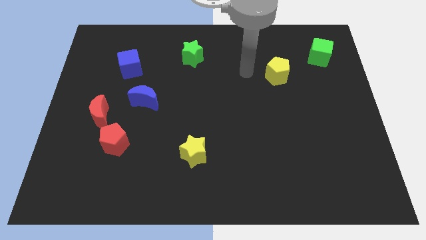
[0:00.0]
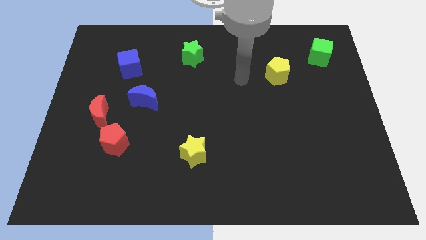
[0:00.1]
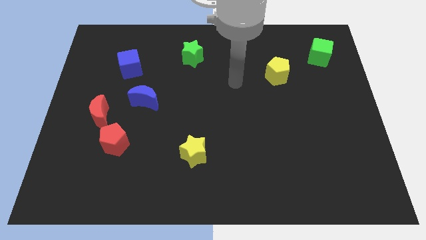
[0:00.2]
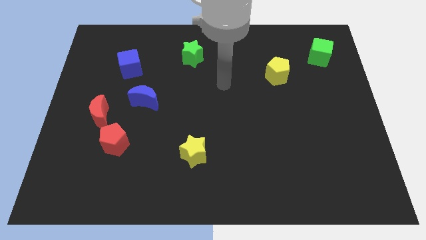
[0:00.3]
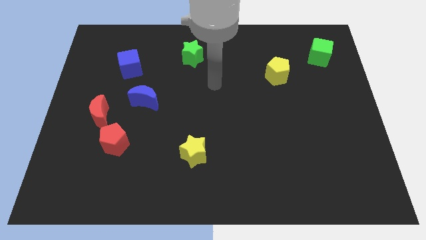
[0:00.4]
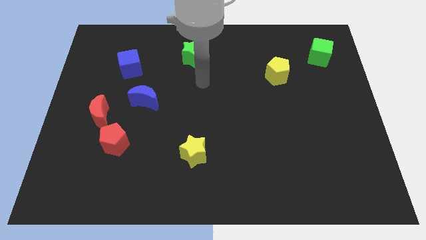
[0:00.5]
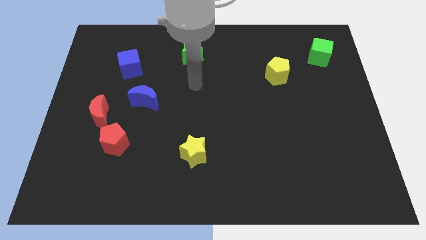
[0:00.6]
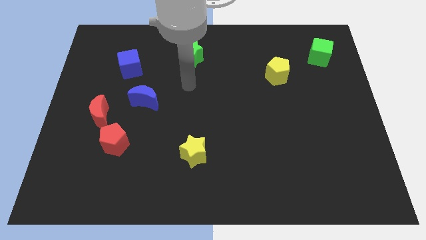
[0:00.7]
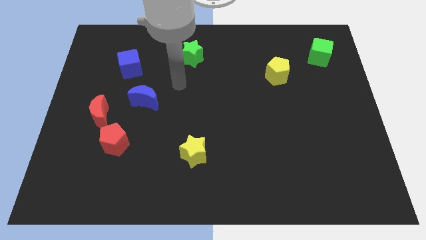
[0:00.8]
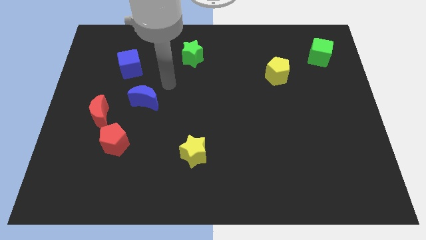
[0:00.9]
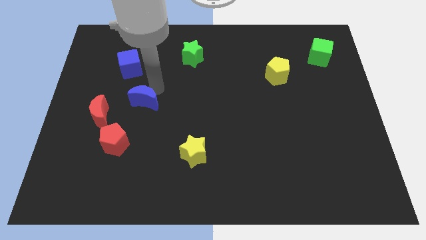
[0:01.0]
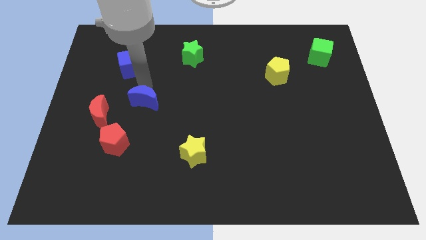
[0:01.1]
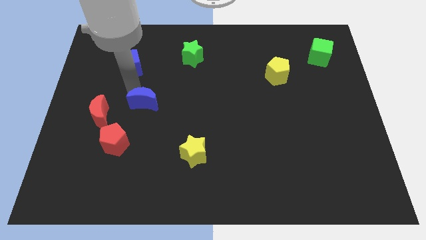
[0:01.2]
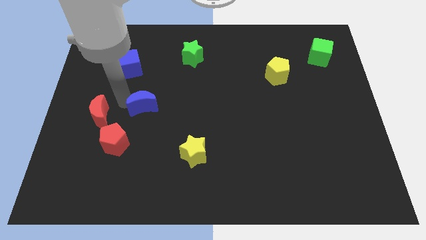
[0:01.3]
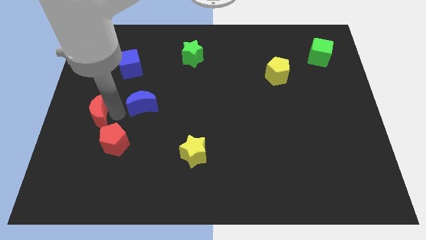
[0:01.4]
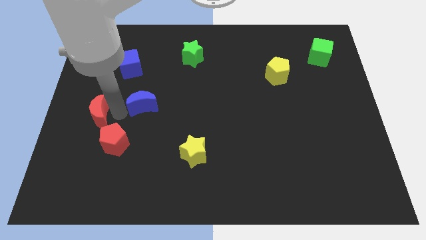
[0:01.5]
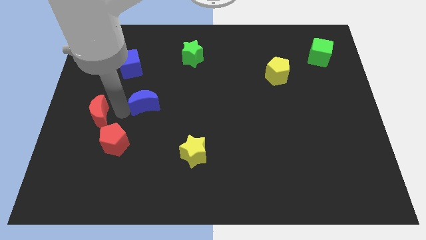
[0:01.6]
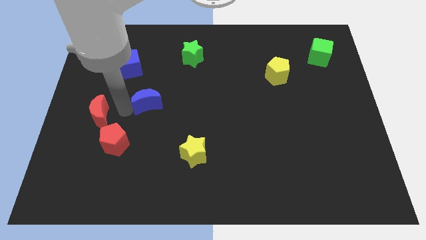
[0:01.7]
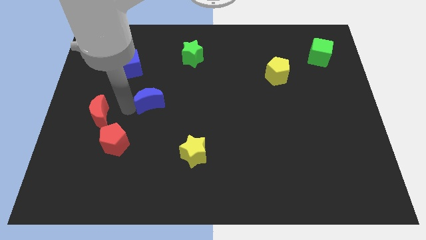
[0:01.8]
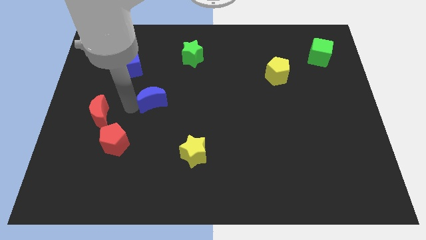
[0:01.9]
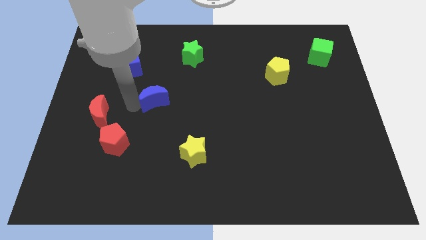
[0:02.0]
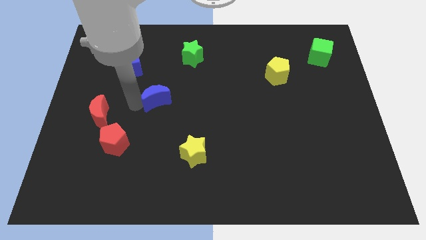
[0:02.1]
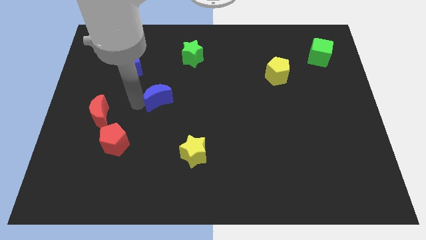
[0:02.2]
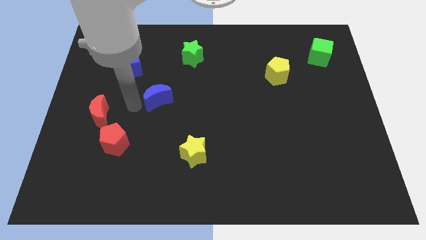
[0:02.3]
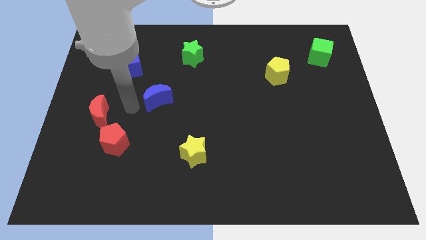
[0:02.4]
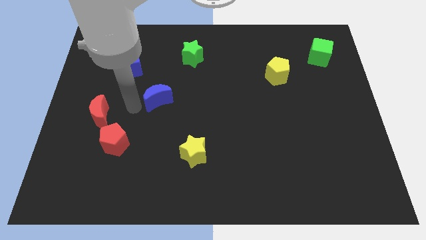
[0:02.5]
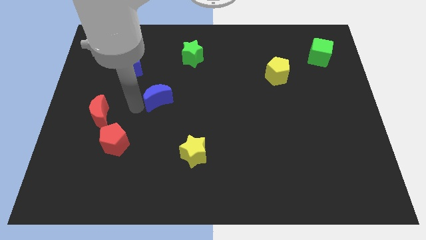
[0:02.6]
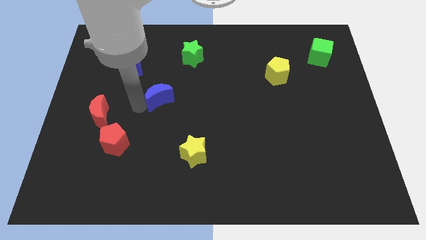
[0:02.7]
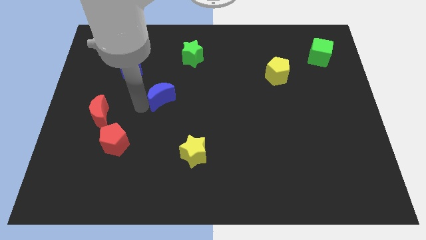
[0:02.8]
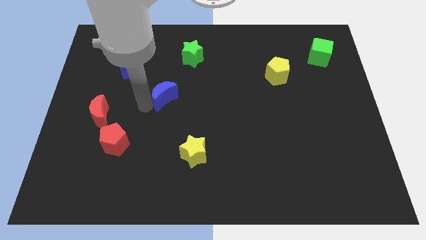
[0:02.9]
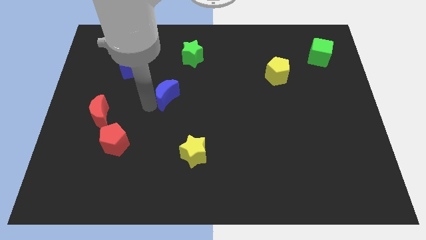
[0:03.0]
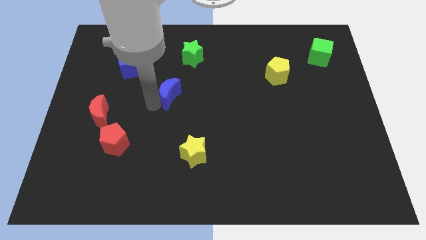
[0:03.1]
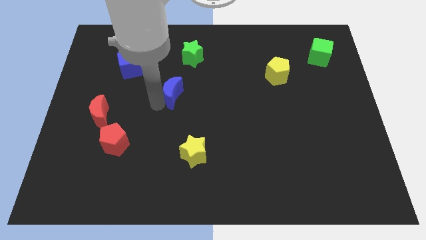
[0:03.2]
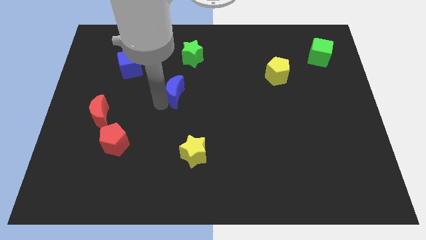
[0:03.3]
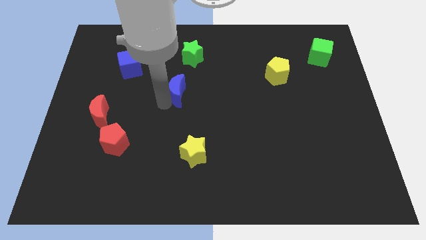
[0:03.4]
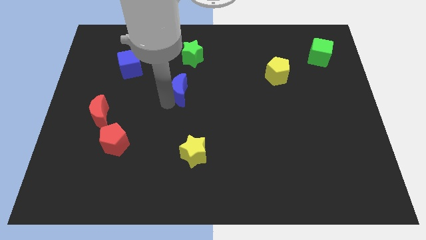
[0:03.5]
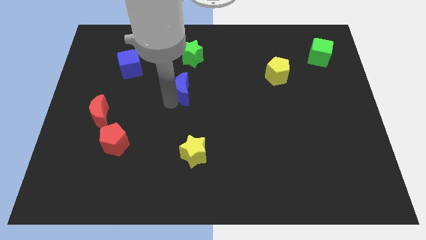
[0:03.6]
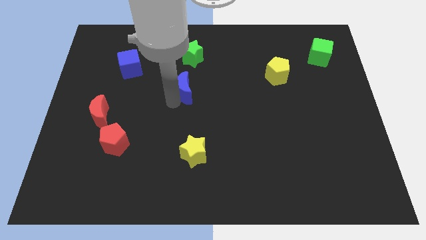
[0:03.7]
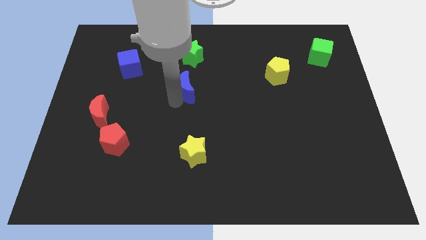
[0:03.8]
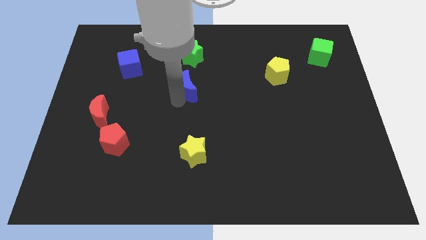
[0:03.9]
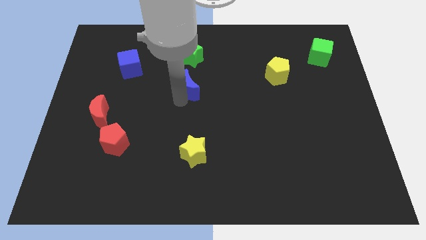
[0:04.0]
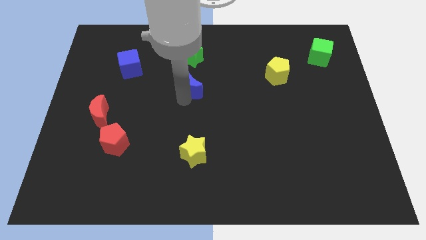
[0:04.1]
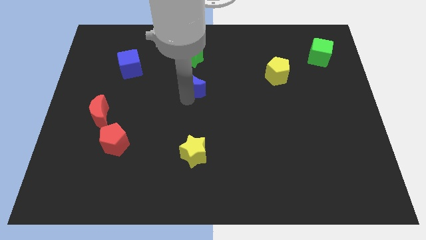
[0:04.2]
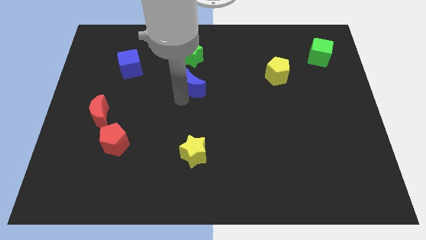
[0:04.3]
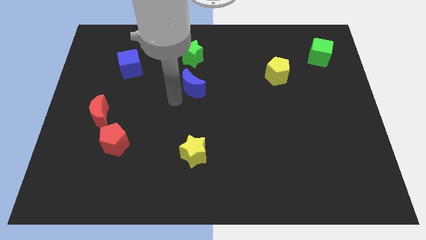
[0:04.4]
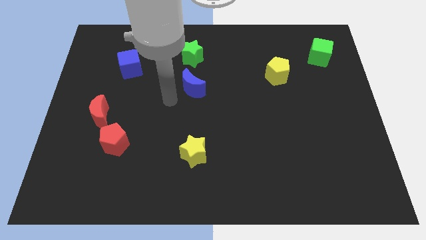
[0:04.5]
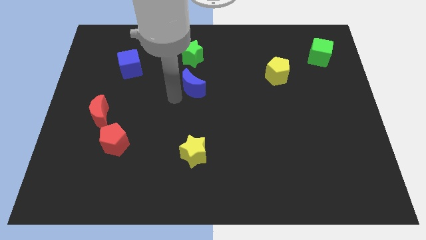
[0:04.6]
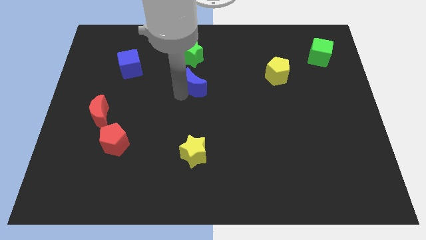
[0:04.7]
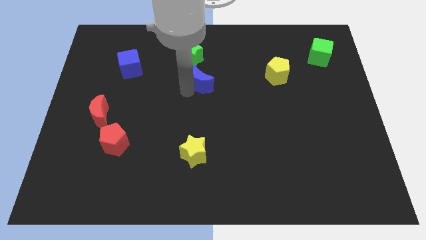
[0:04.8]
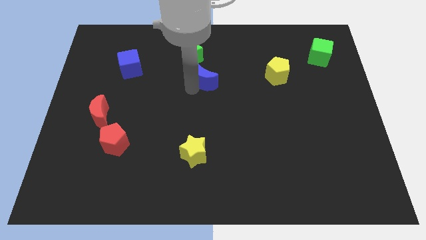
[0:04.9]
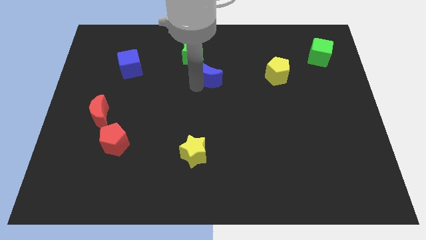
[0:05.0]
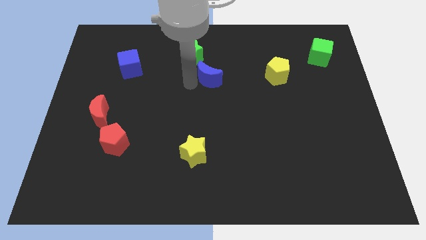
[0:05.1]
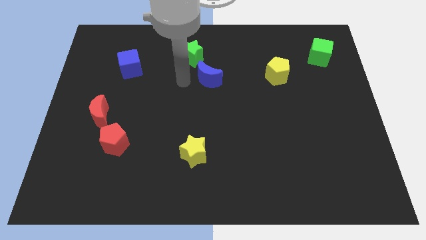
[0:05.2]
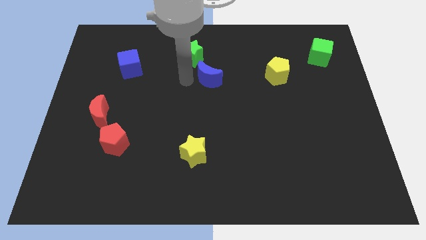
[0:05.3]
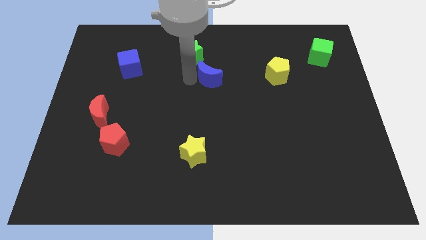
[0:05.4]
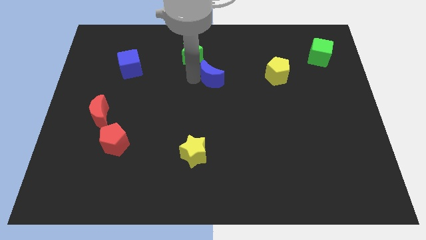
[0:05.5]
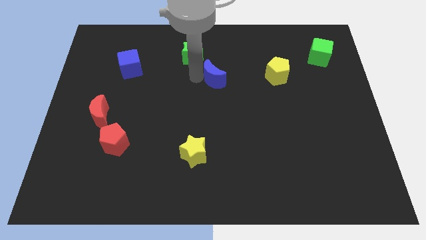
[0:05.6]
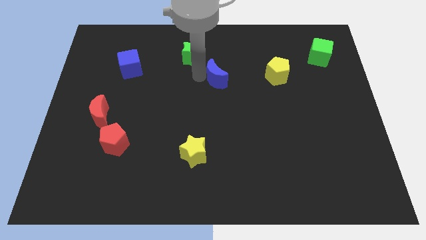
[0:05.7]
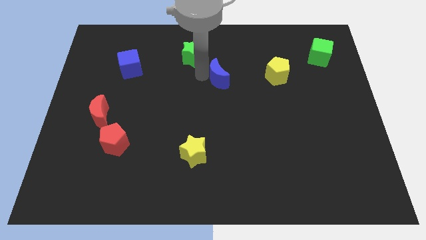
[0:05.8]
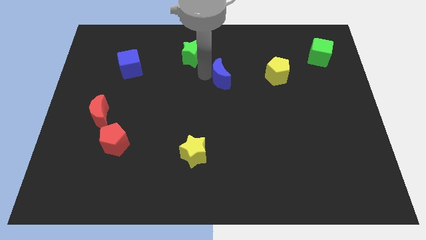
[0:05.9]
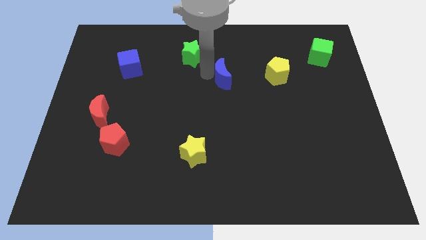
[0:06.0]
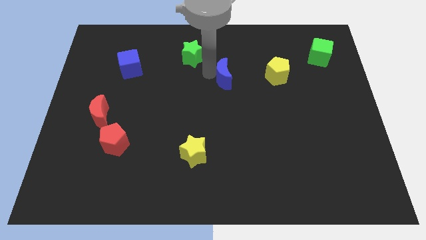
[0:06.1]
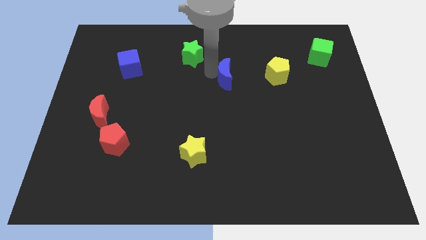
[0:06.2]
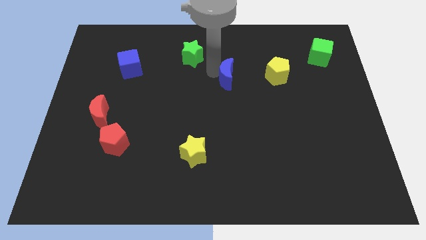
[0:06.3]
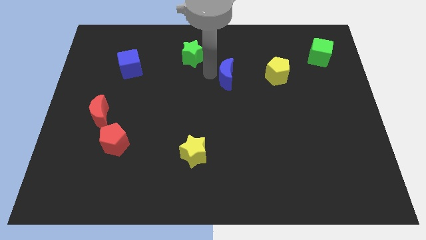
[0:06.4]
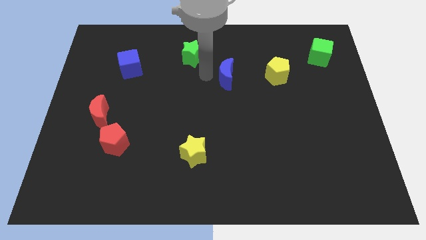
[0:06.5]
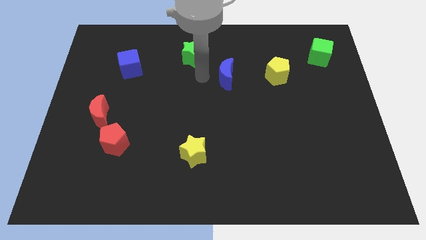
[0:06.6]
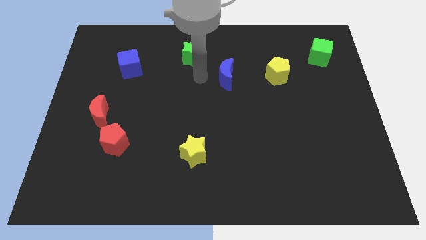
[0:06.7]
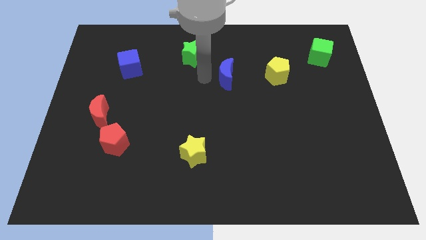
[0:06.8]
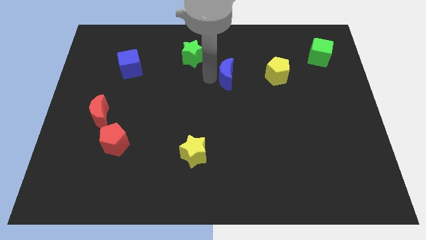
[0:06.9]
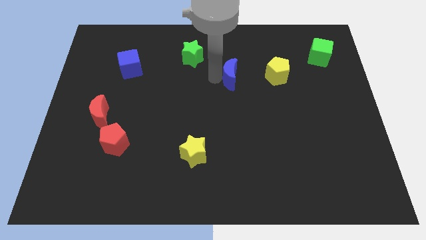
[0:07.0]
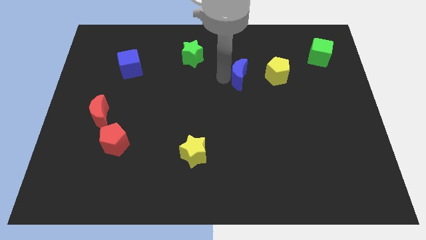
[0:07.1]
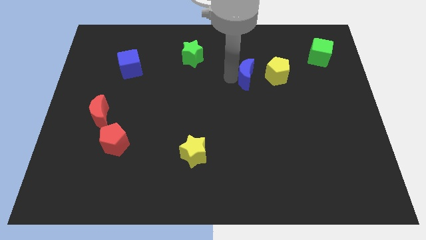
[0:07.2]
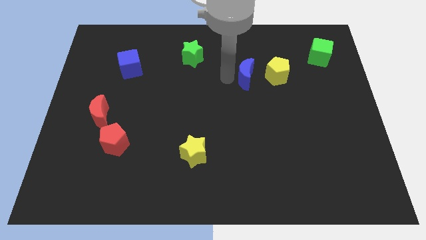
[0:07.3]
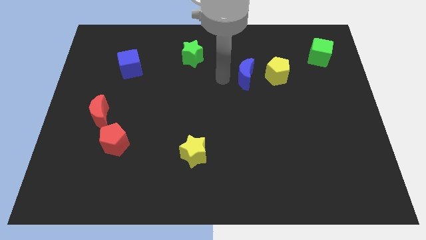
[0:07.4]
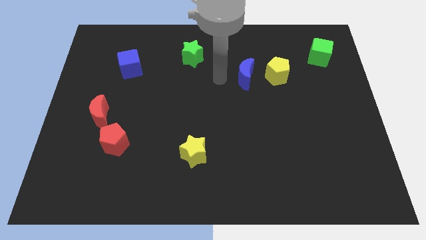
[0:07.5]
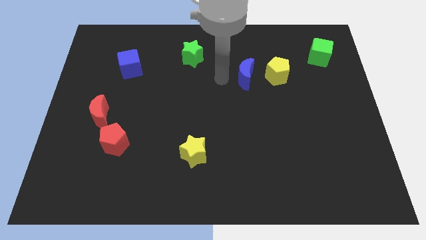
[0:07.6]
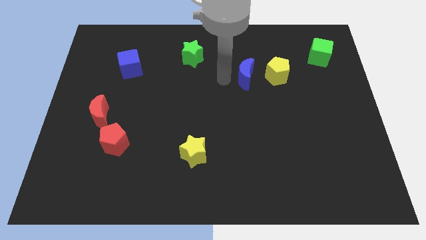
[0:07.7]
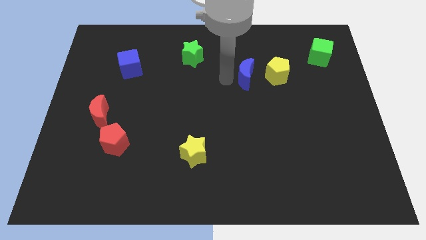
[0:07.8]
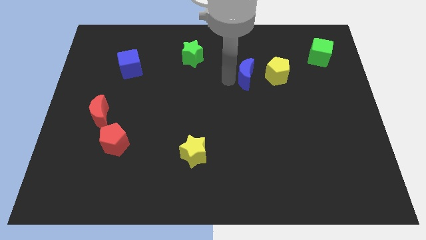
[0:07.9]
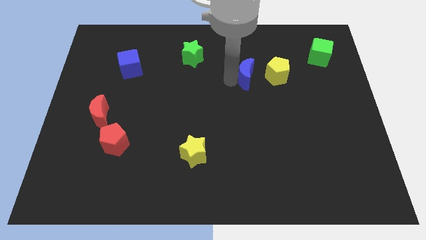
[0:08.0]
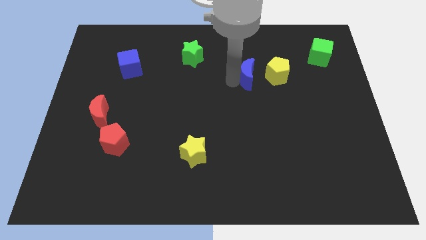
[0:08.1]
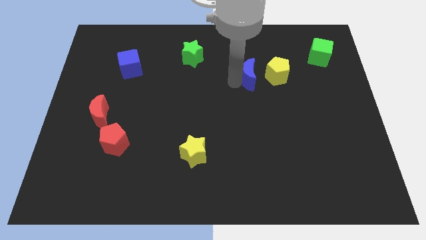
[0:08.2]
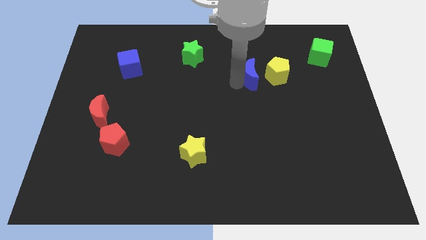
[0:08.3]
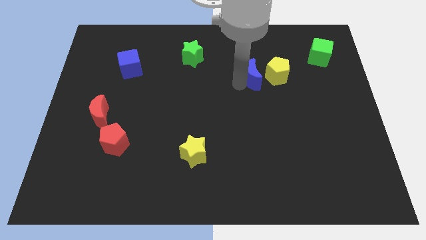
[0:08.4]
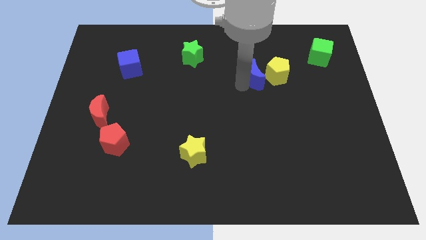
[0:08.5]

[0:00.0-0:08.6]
move the blue moon next to the yellow pentagon
